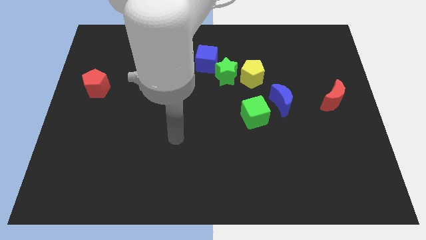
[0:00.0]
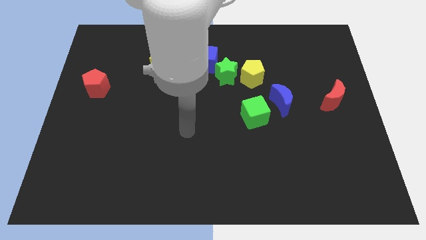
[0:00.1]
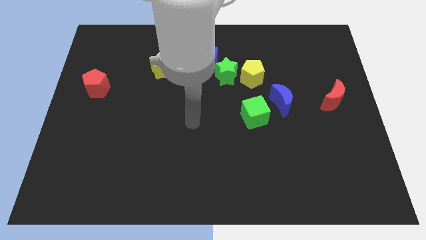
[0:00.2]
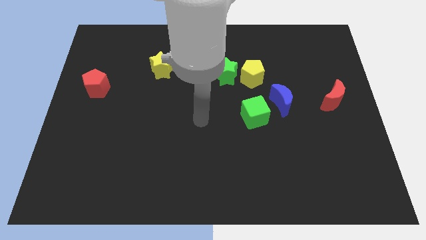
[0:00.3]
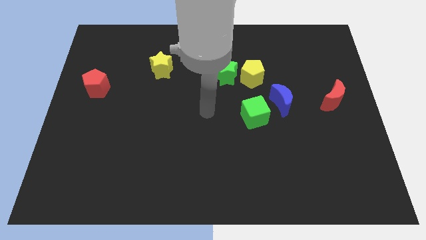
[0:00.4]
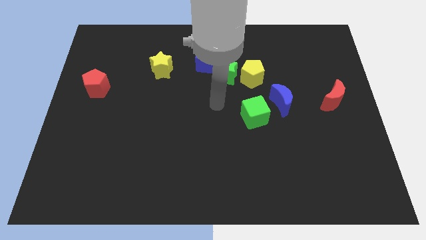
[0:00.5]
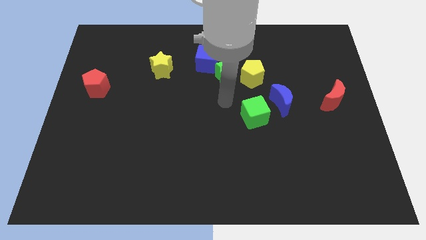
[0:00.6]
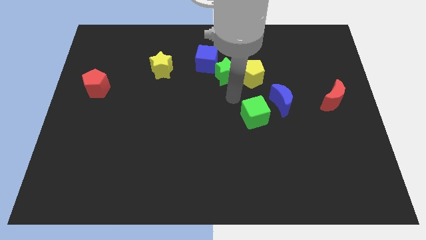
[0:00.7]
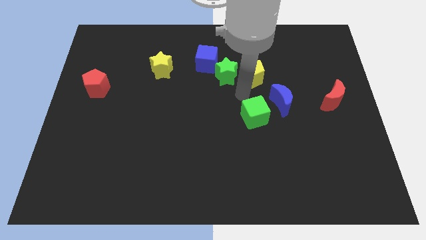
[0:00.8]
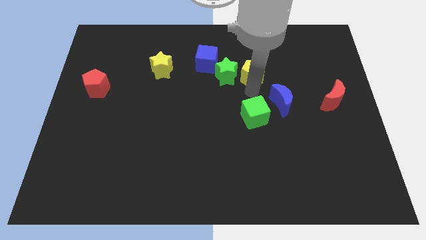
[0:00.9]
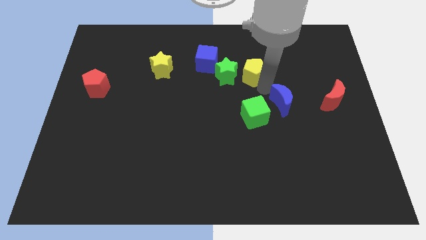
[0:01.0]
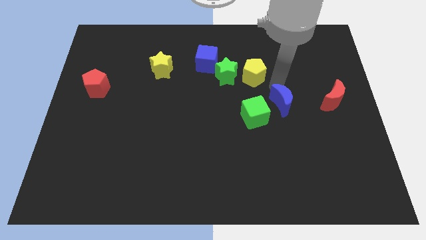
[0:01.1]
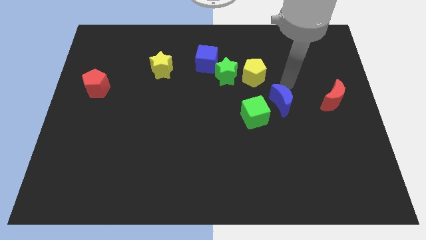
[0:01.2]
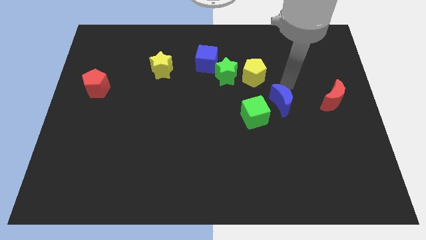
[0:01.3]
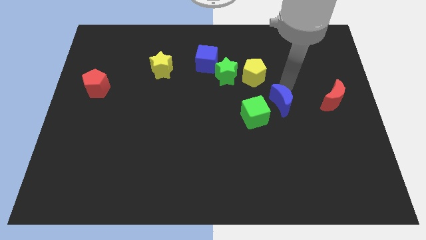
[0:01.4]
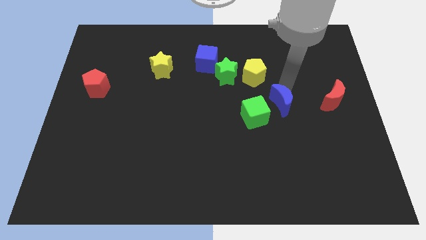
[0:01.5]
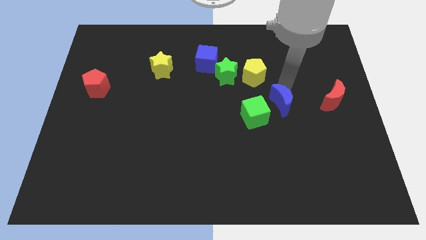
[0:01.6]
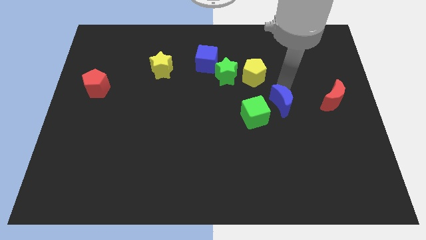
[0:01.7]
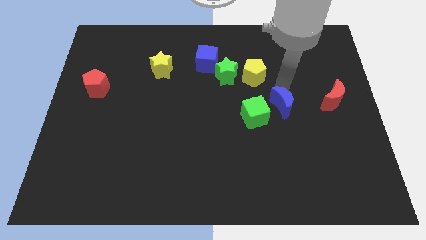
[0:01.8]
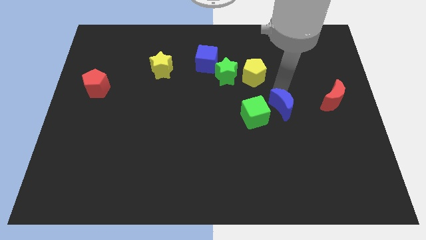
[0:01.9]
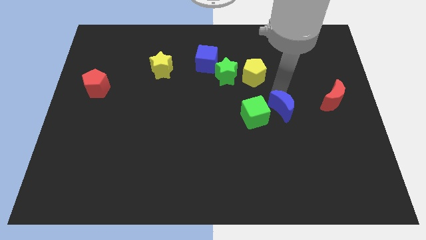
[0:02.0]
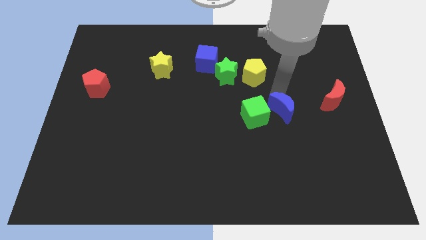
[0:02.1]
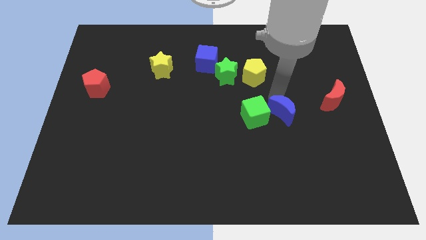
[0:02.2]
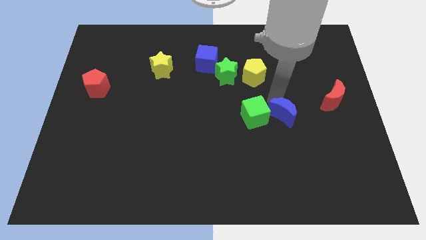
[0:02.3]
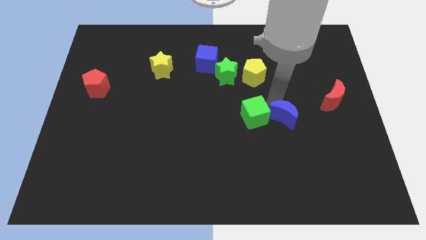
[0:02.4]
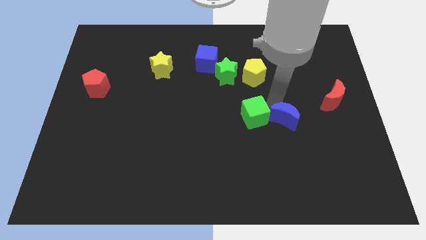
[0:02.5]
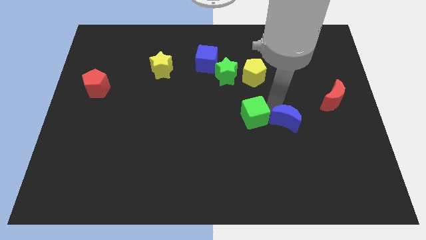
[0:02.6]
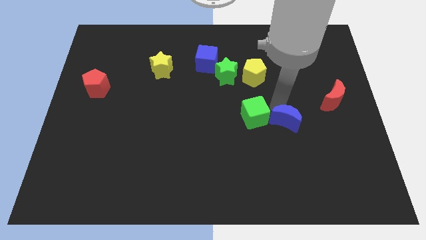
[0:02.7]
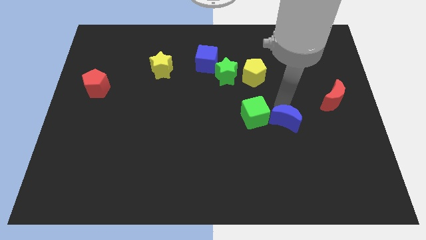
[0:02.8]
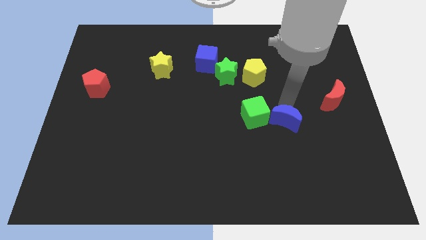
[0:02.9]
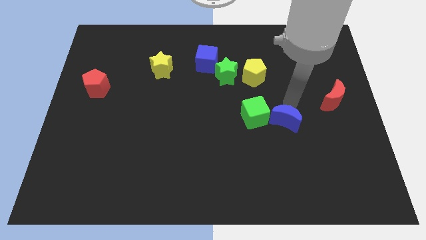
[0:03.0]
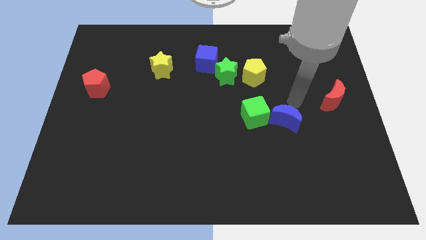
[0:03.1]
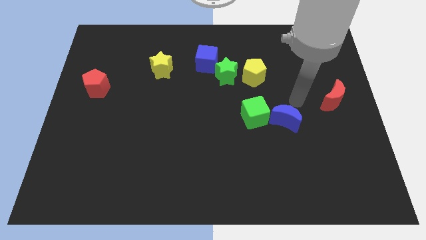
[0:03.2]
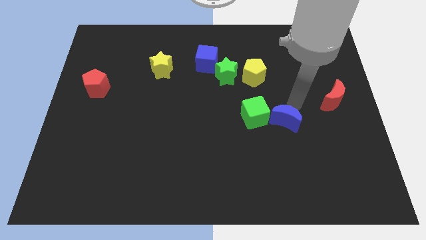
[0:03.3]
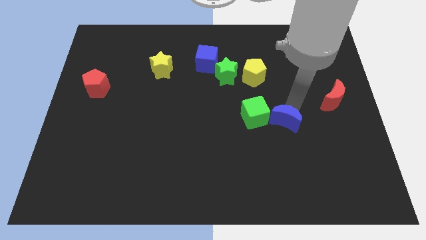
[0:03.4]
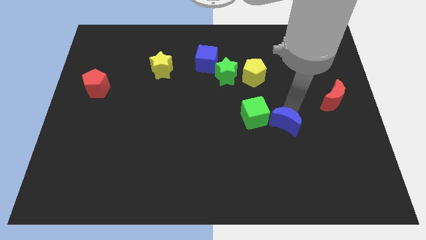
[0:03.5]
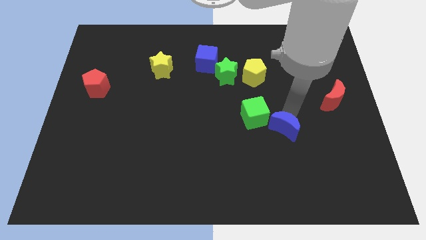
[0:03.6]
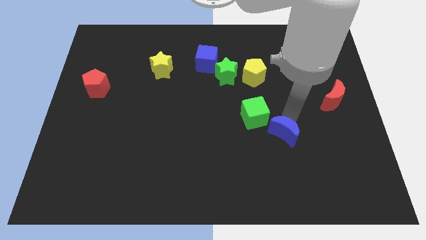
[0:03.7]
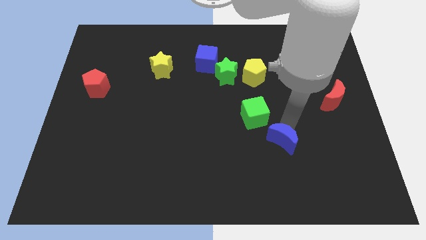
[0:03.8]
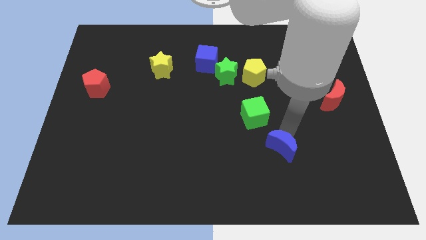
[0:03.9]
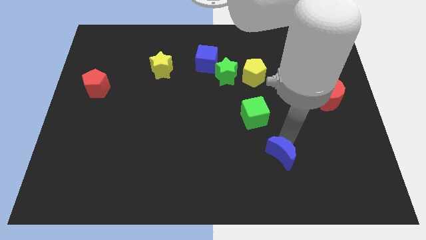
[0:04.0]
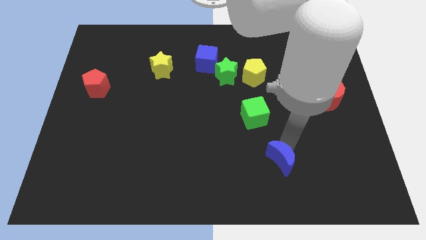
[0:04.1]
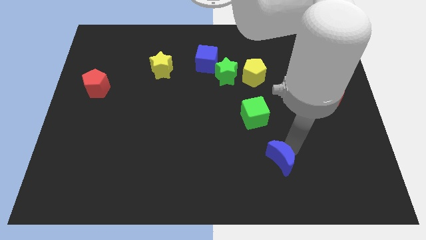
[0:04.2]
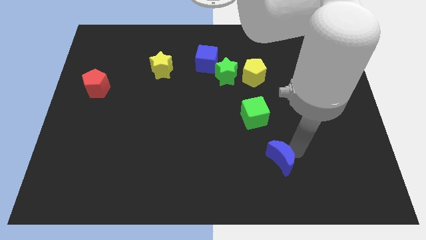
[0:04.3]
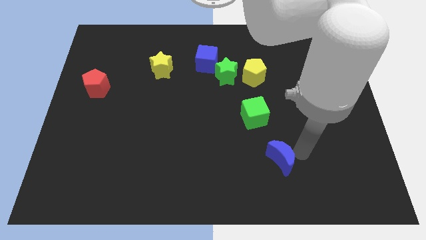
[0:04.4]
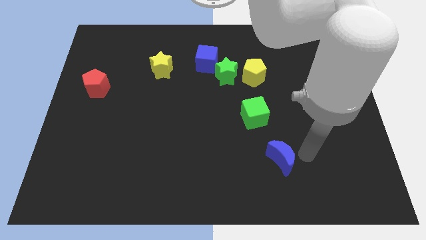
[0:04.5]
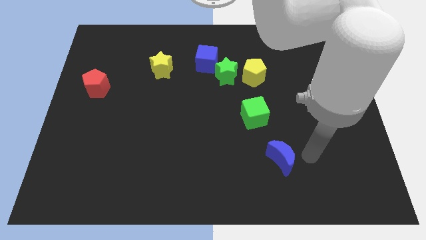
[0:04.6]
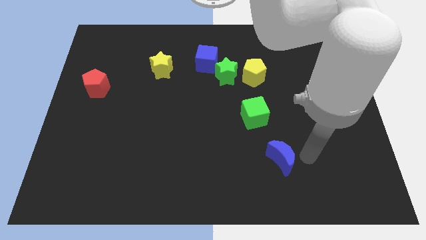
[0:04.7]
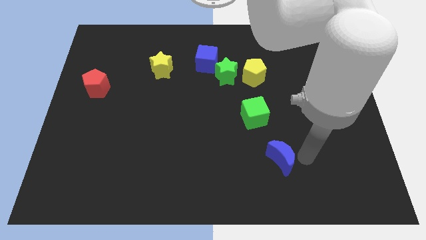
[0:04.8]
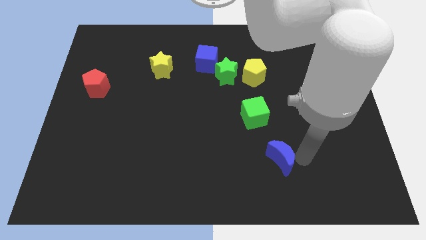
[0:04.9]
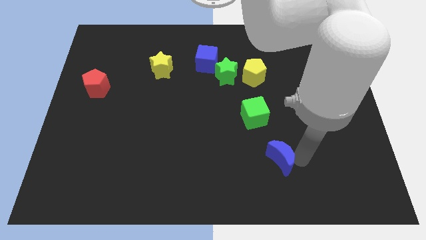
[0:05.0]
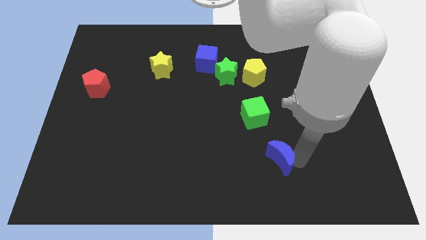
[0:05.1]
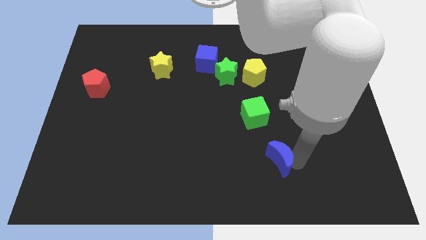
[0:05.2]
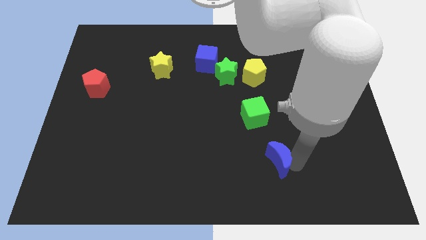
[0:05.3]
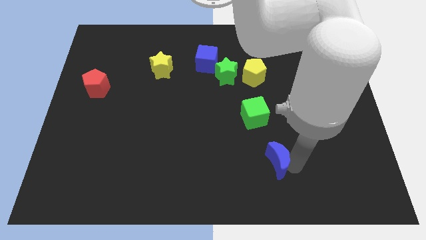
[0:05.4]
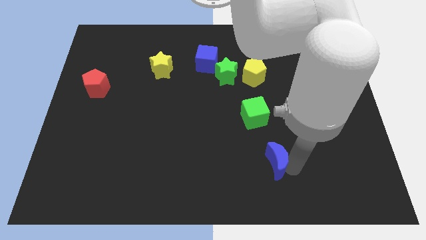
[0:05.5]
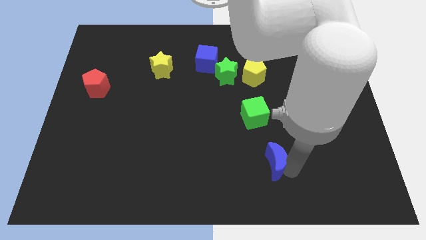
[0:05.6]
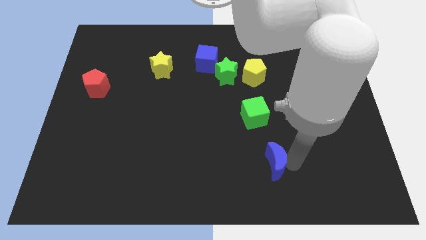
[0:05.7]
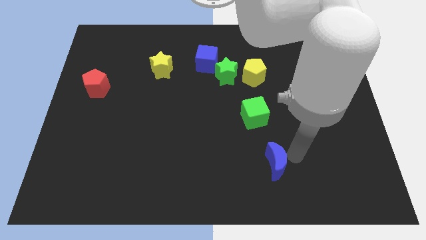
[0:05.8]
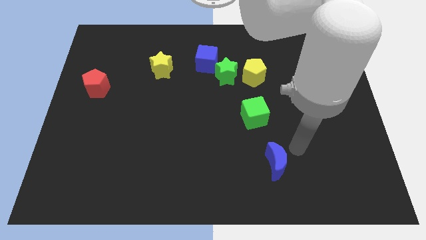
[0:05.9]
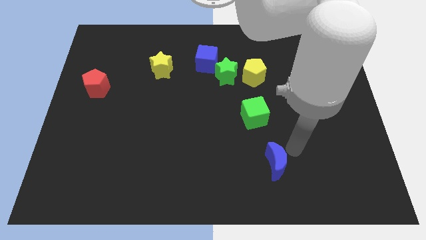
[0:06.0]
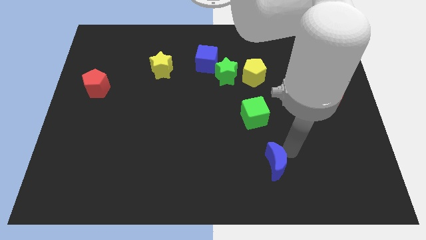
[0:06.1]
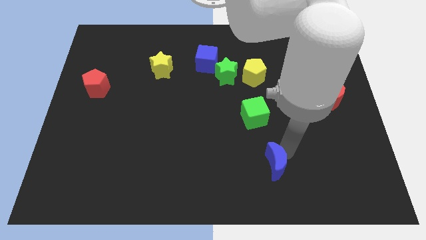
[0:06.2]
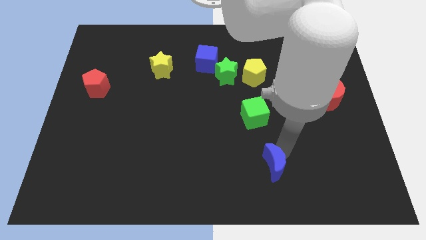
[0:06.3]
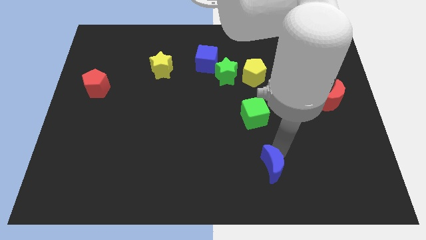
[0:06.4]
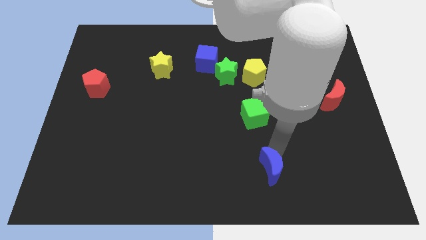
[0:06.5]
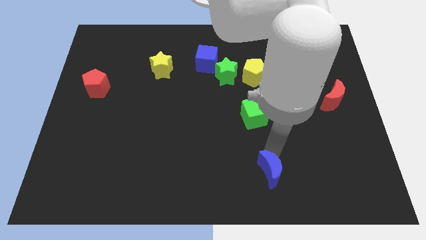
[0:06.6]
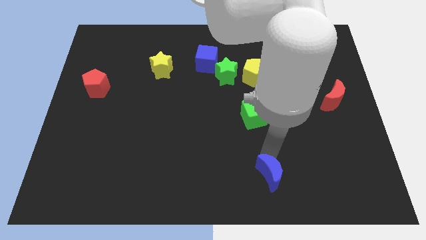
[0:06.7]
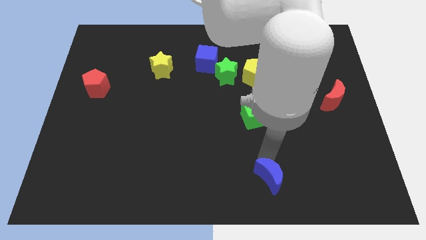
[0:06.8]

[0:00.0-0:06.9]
slide the blue moon to the bottom
